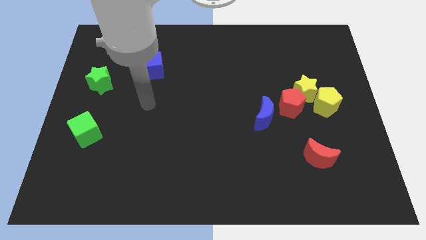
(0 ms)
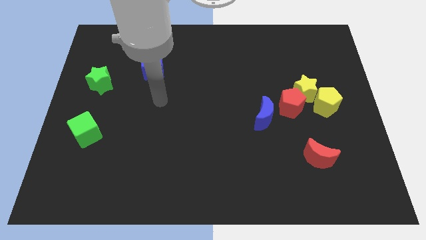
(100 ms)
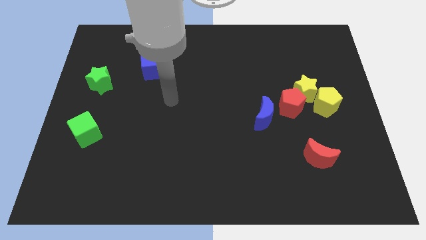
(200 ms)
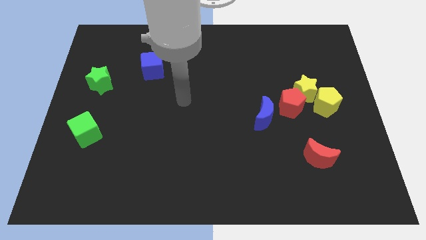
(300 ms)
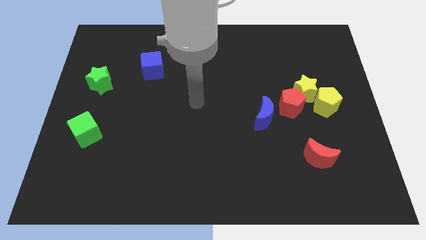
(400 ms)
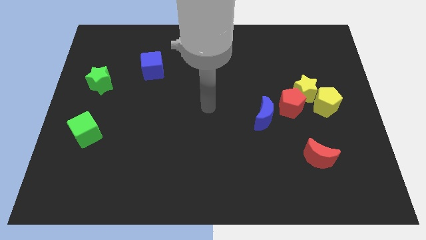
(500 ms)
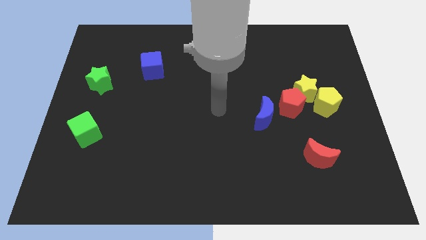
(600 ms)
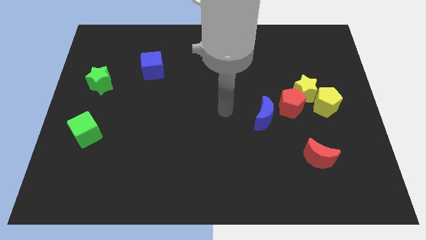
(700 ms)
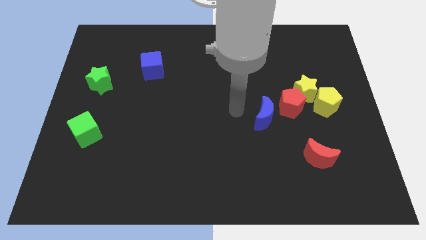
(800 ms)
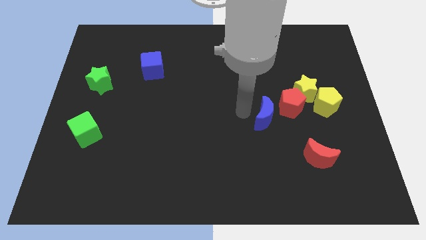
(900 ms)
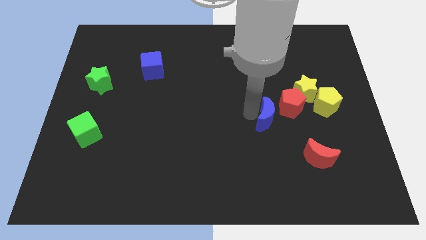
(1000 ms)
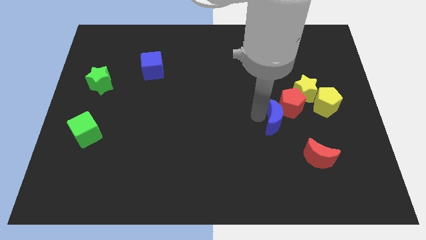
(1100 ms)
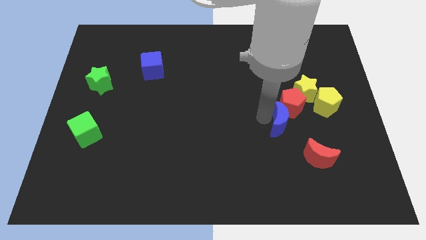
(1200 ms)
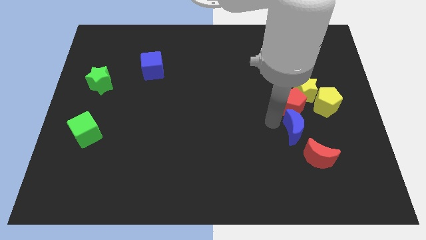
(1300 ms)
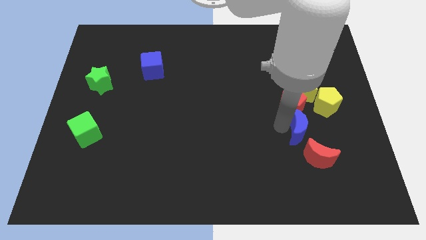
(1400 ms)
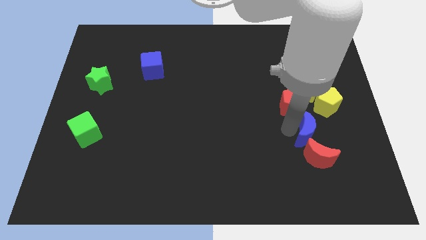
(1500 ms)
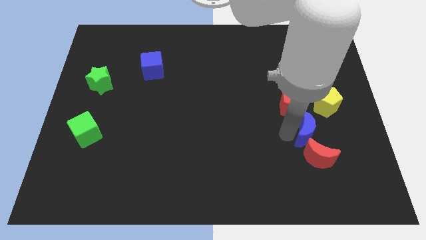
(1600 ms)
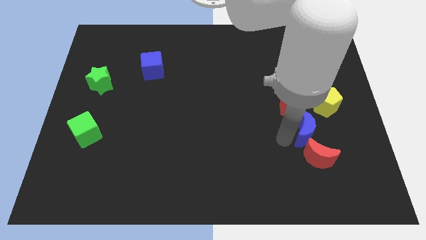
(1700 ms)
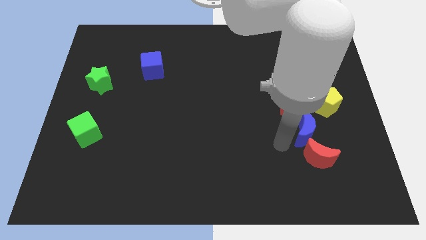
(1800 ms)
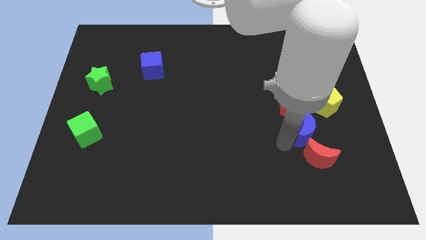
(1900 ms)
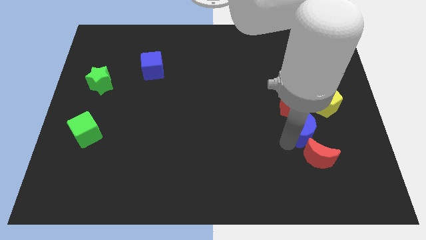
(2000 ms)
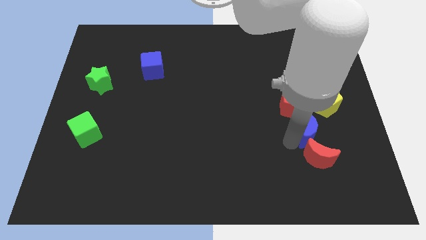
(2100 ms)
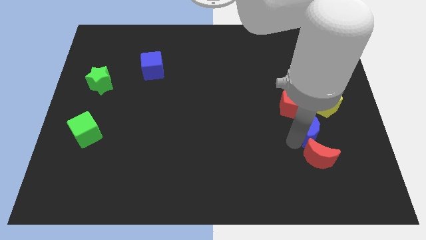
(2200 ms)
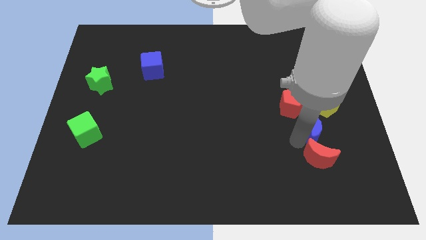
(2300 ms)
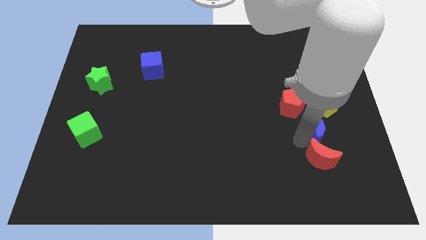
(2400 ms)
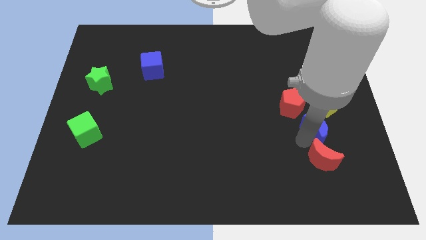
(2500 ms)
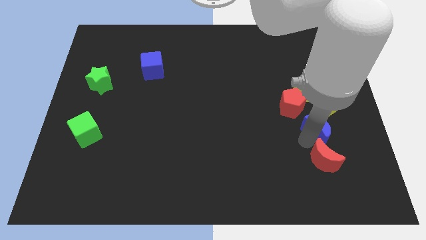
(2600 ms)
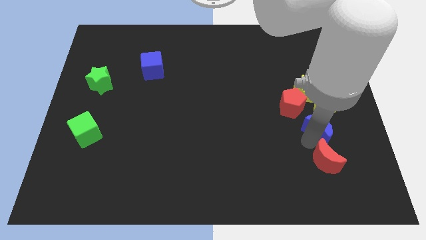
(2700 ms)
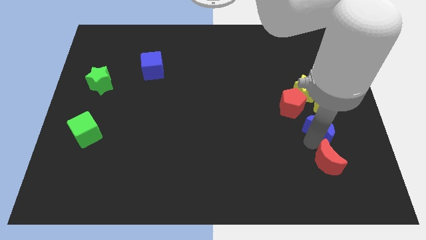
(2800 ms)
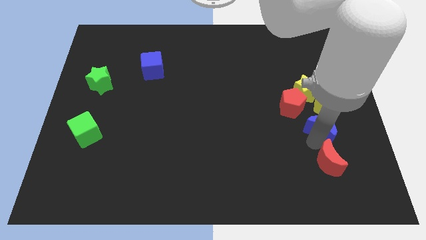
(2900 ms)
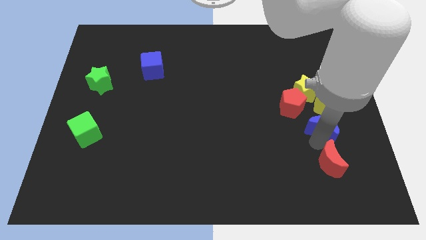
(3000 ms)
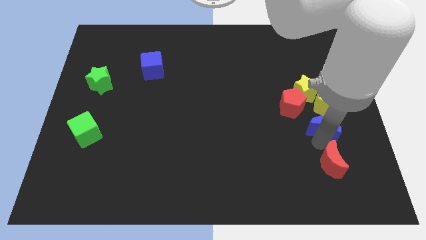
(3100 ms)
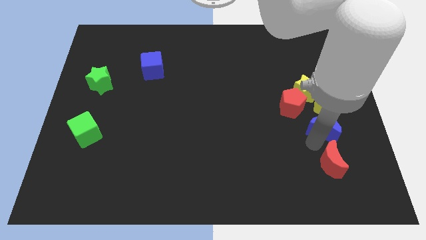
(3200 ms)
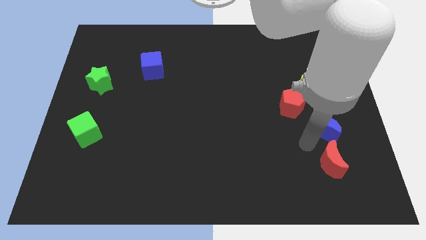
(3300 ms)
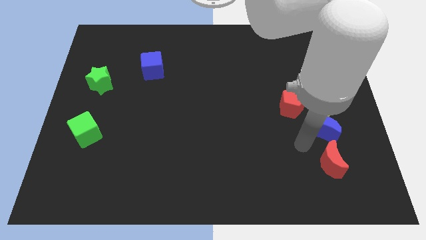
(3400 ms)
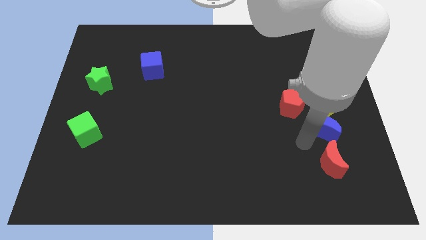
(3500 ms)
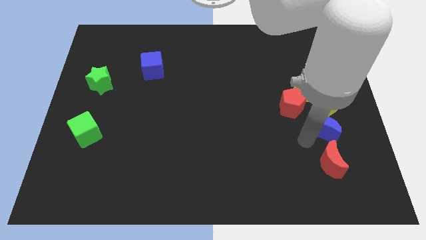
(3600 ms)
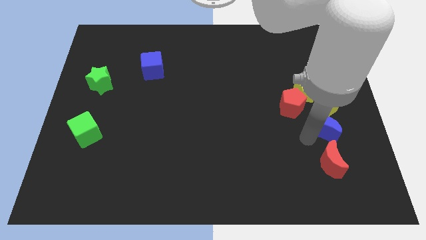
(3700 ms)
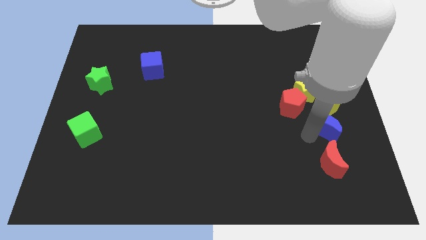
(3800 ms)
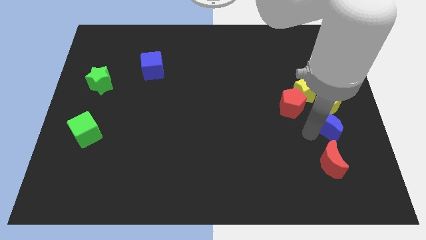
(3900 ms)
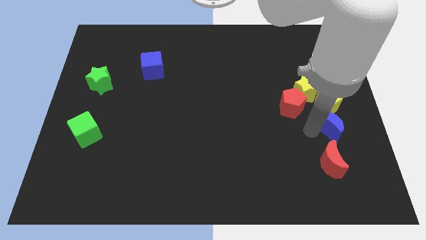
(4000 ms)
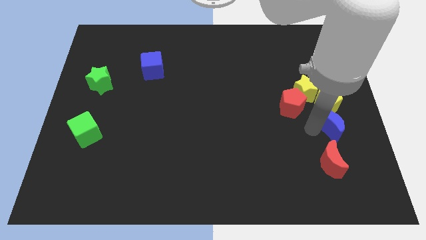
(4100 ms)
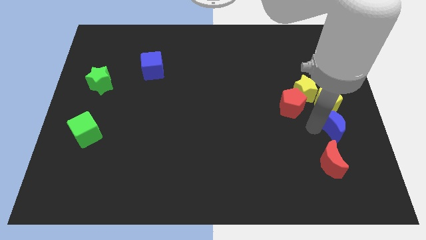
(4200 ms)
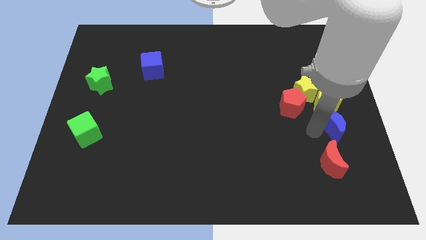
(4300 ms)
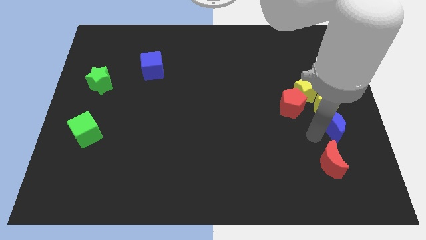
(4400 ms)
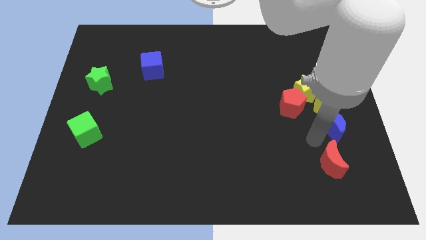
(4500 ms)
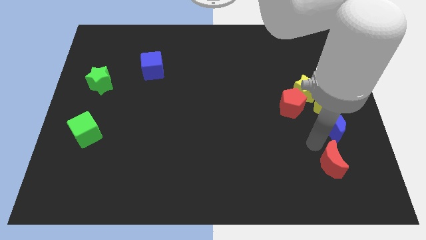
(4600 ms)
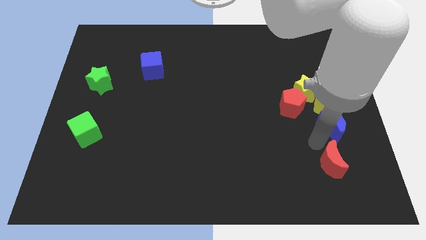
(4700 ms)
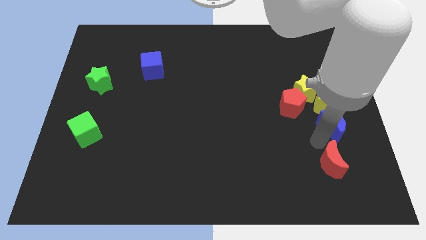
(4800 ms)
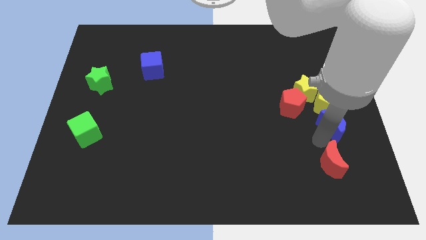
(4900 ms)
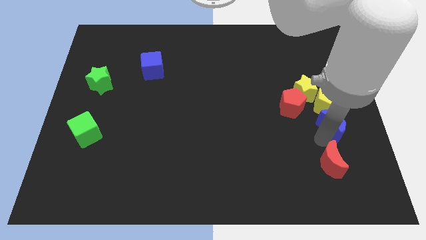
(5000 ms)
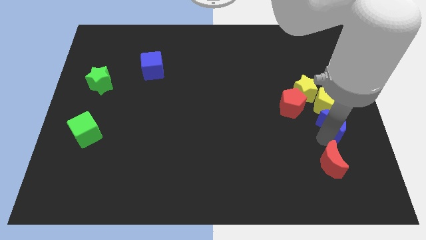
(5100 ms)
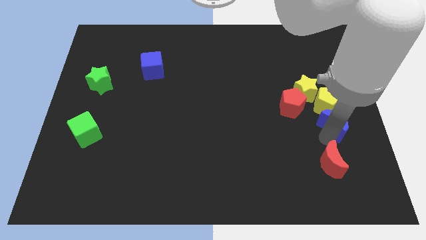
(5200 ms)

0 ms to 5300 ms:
move the blue moon to the right side

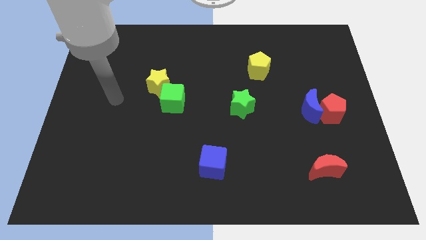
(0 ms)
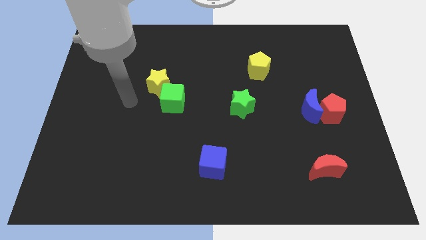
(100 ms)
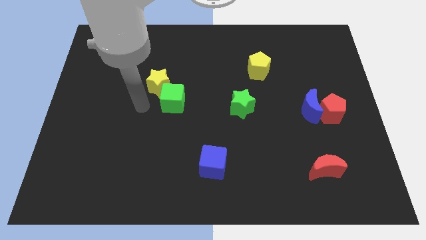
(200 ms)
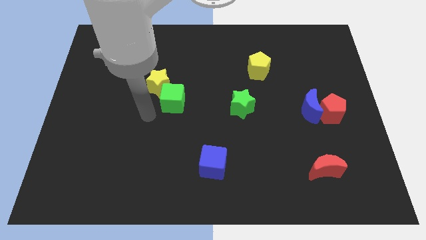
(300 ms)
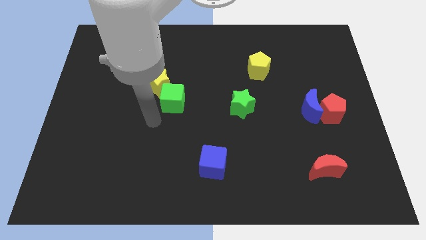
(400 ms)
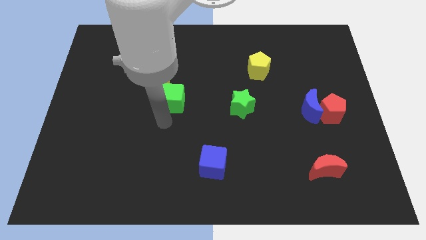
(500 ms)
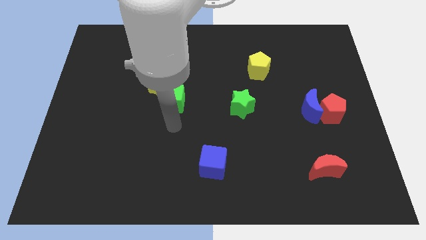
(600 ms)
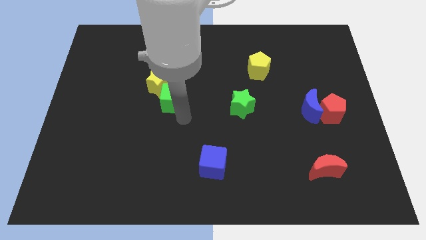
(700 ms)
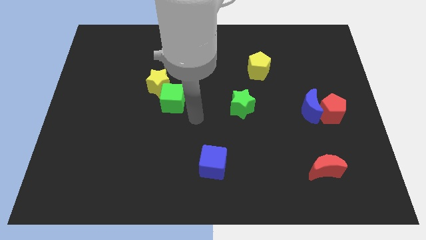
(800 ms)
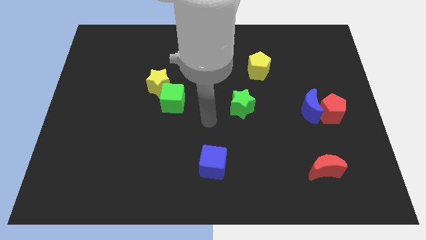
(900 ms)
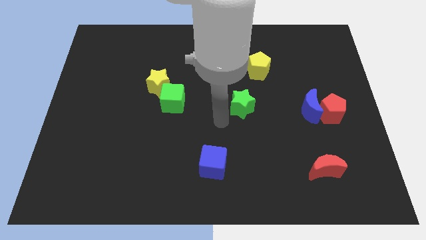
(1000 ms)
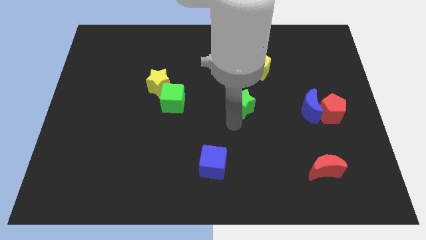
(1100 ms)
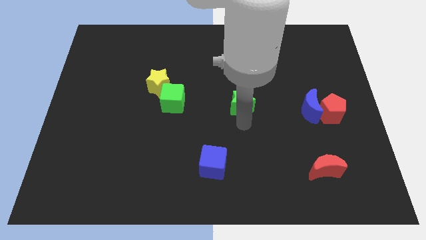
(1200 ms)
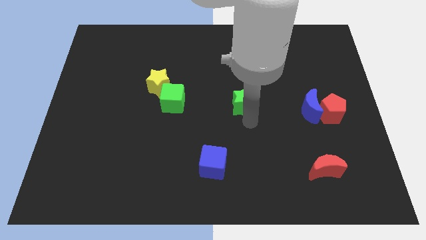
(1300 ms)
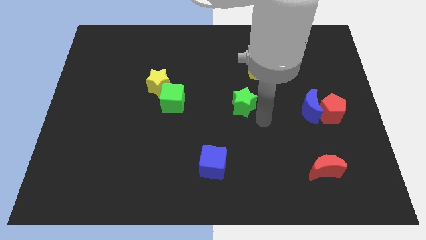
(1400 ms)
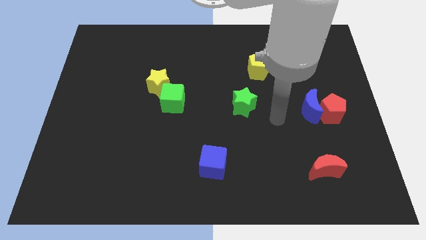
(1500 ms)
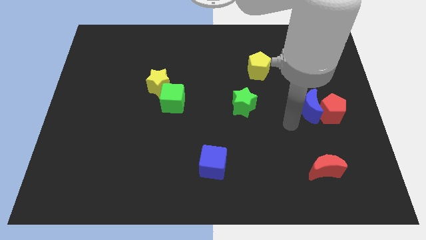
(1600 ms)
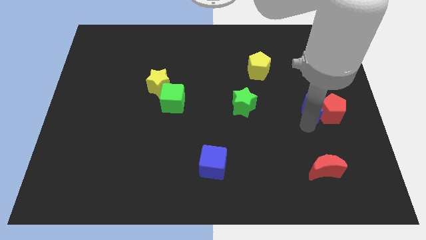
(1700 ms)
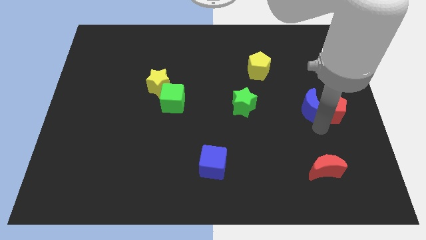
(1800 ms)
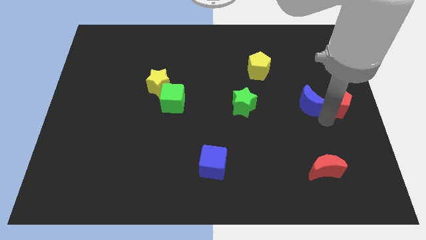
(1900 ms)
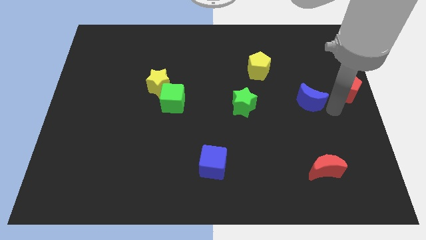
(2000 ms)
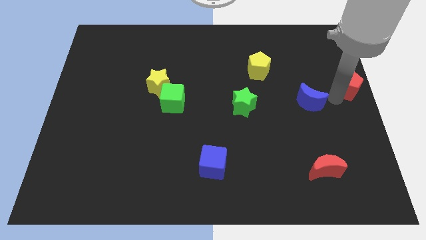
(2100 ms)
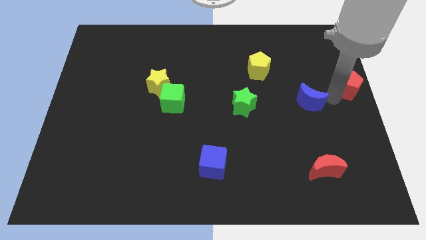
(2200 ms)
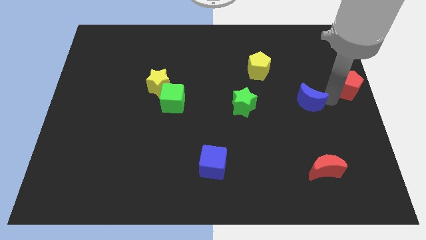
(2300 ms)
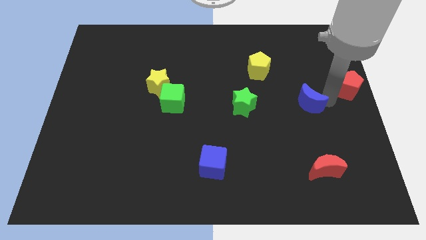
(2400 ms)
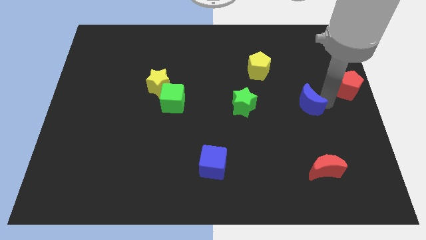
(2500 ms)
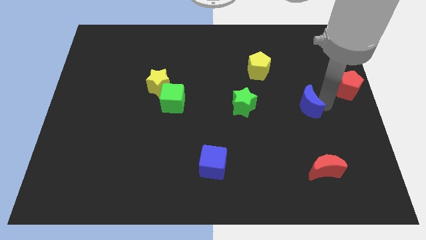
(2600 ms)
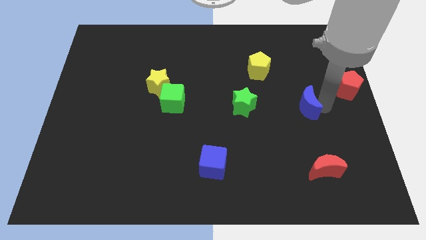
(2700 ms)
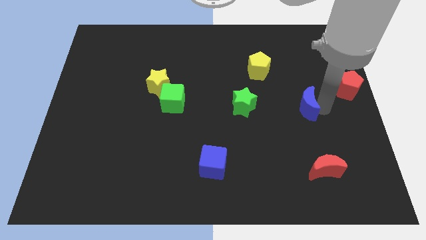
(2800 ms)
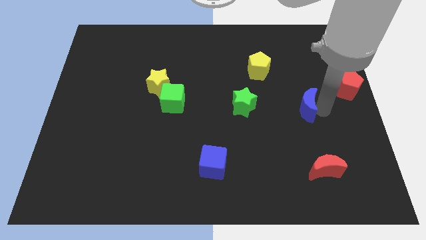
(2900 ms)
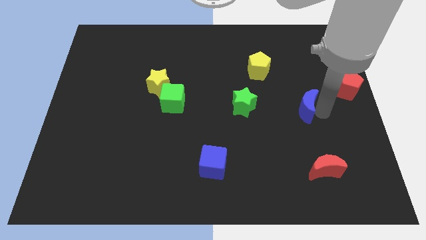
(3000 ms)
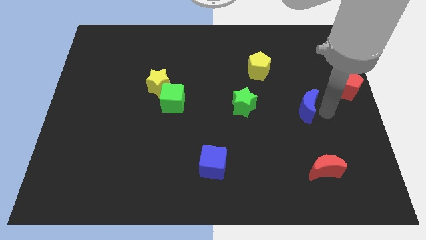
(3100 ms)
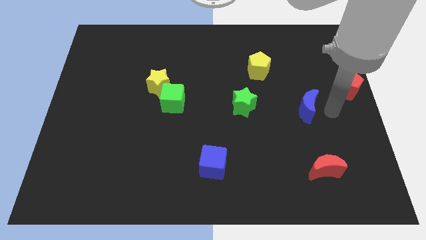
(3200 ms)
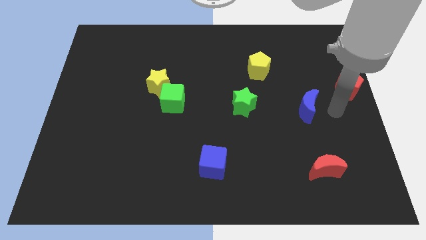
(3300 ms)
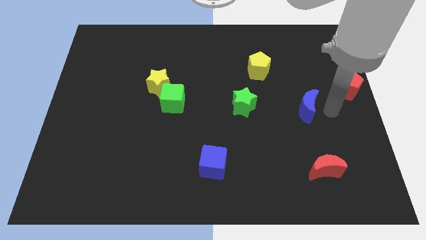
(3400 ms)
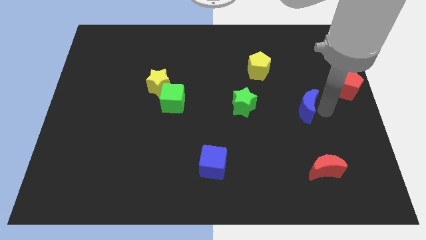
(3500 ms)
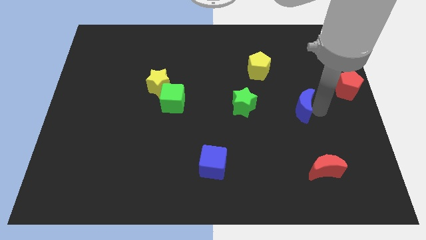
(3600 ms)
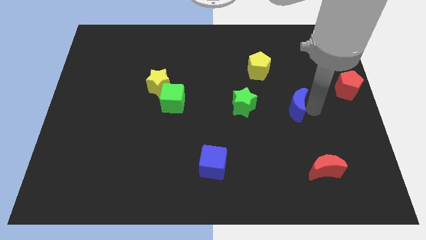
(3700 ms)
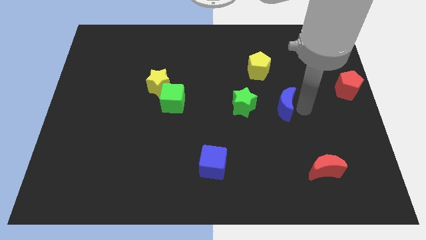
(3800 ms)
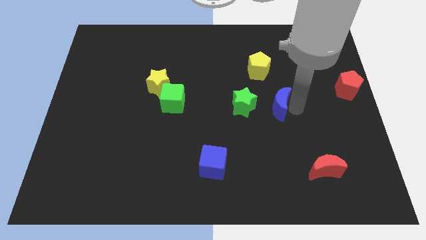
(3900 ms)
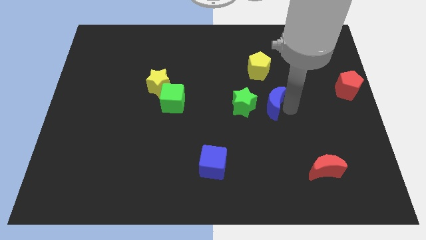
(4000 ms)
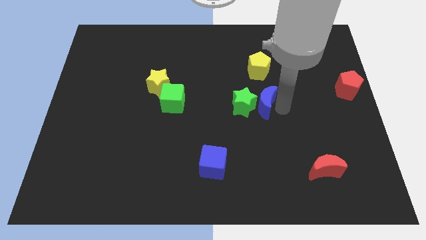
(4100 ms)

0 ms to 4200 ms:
slide the blue moon to the middle
